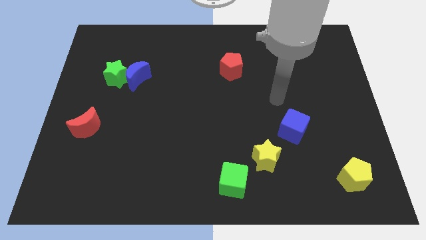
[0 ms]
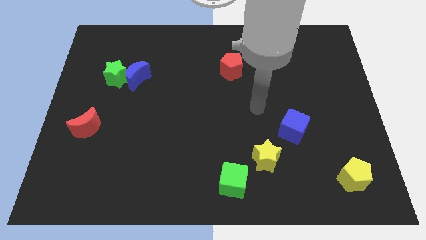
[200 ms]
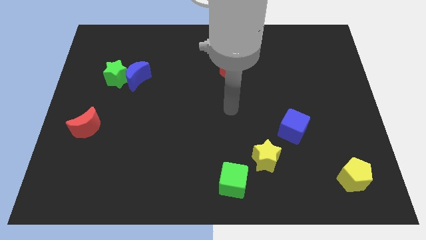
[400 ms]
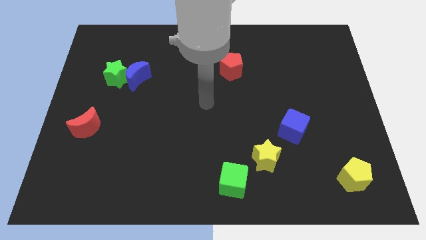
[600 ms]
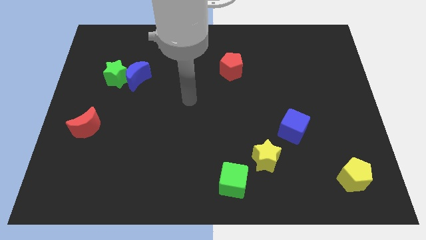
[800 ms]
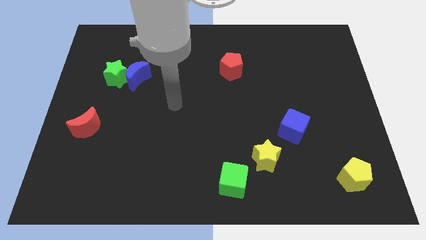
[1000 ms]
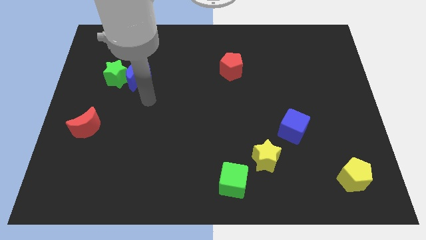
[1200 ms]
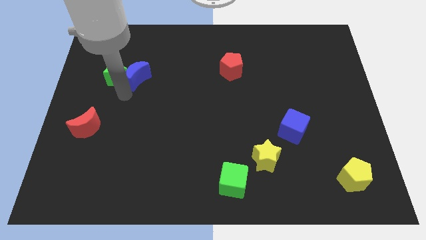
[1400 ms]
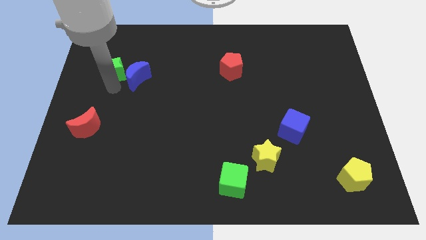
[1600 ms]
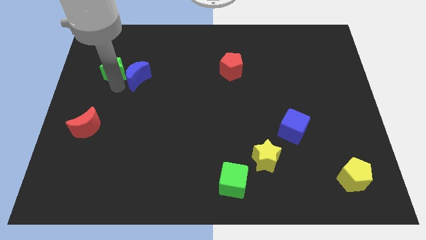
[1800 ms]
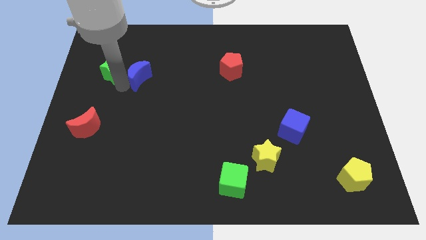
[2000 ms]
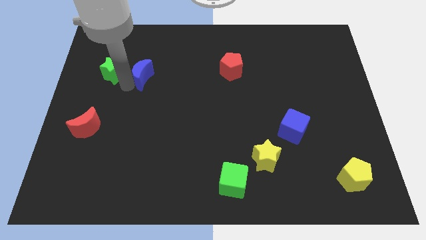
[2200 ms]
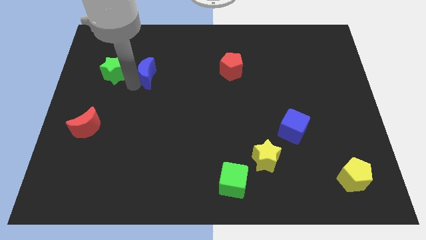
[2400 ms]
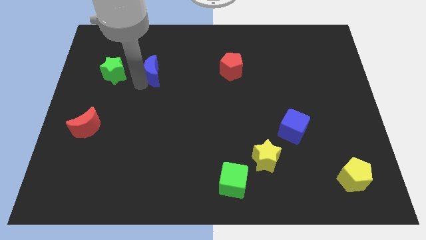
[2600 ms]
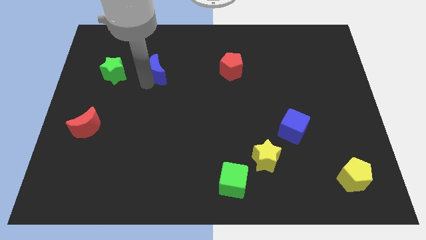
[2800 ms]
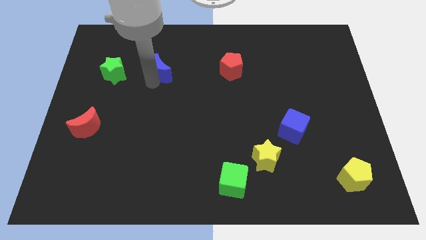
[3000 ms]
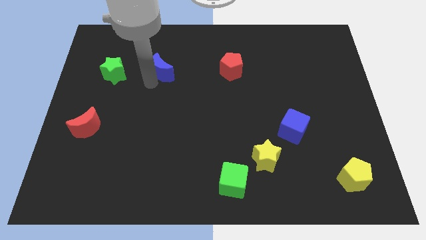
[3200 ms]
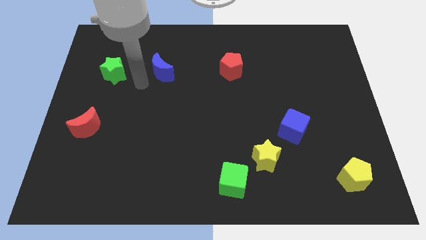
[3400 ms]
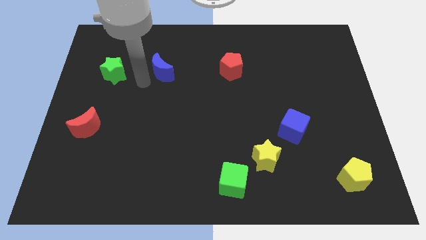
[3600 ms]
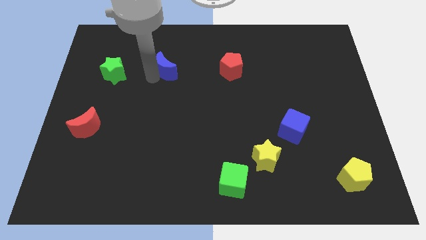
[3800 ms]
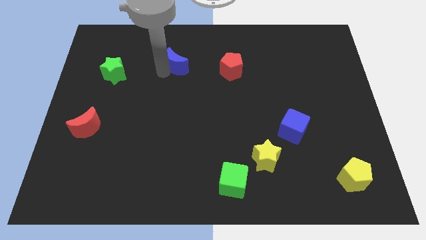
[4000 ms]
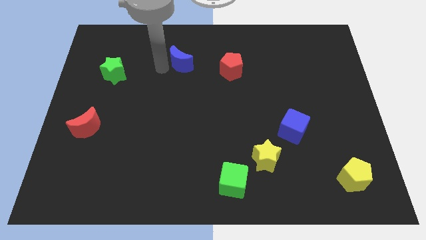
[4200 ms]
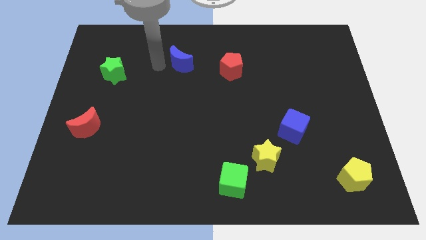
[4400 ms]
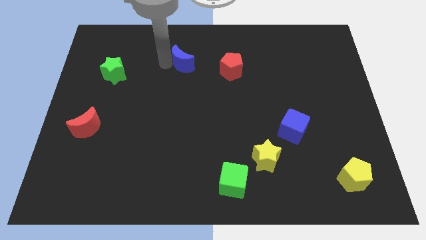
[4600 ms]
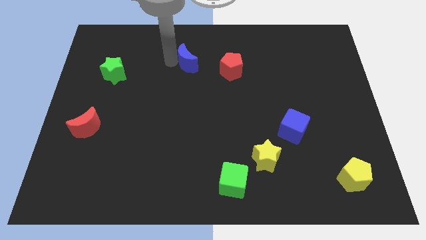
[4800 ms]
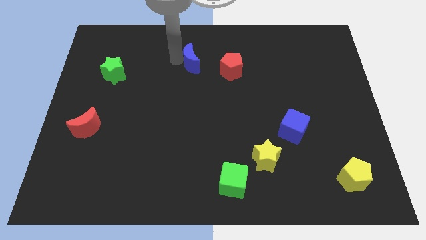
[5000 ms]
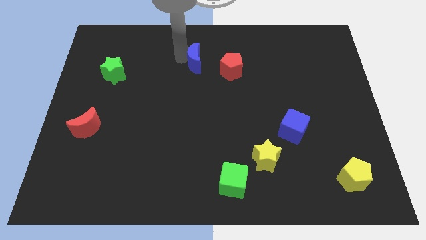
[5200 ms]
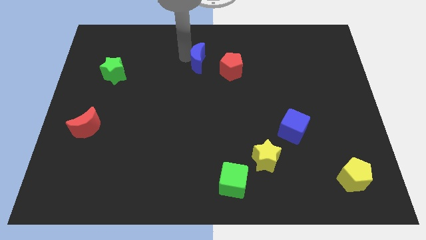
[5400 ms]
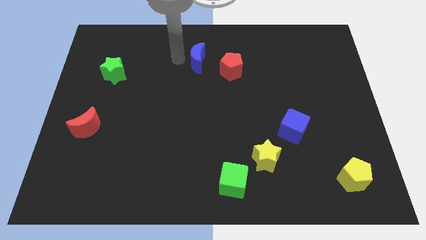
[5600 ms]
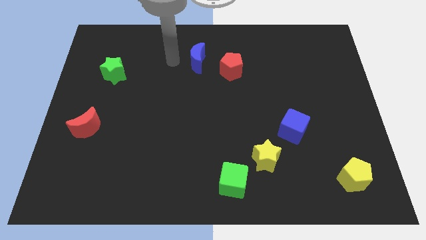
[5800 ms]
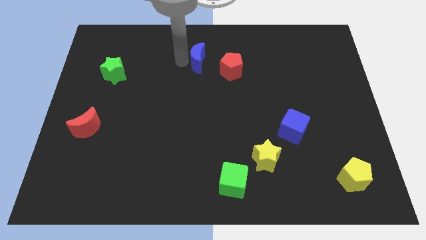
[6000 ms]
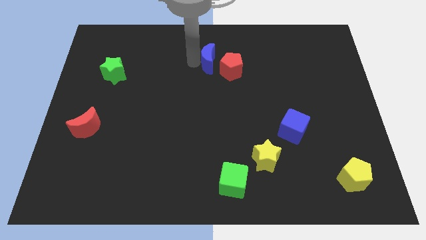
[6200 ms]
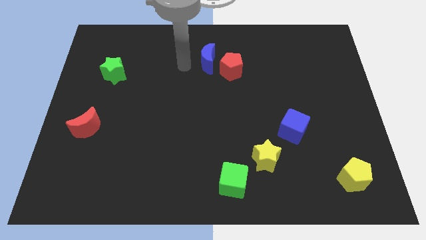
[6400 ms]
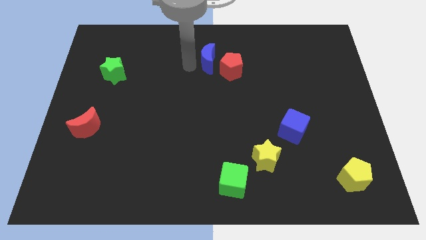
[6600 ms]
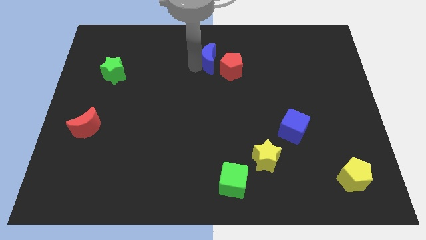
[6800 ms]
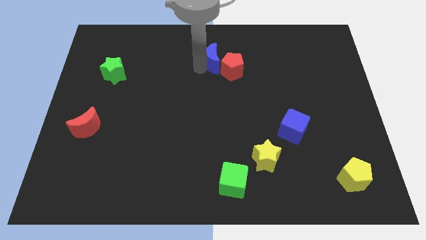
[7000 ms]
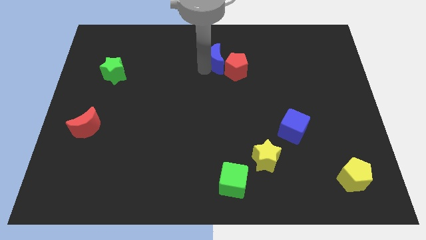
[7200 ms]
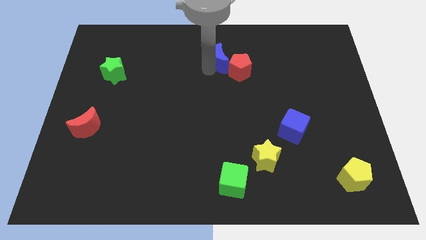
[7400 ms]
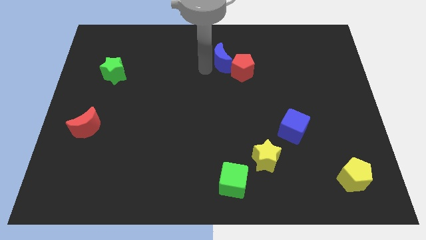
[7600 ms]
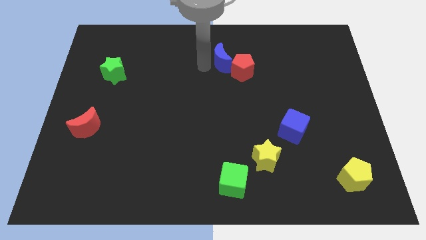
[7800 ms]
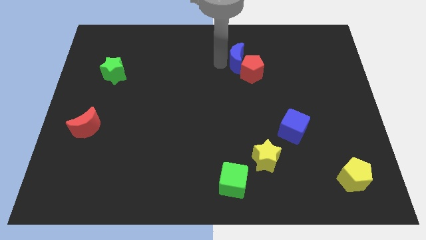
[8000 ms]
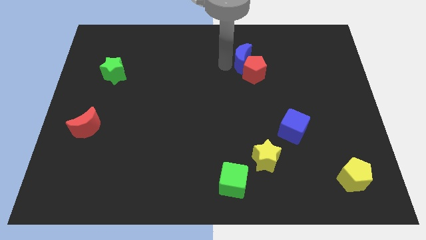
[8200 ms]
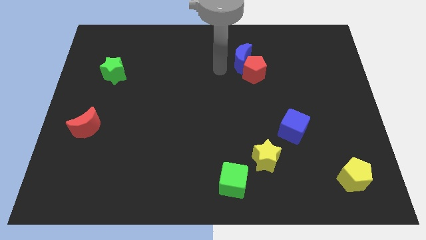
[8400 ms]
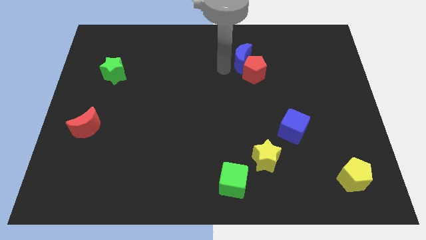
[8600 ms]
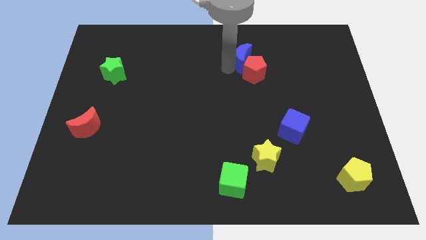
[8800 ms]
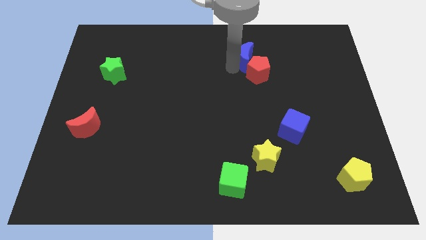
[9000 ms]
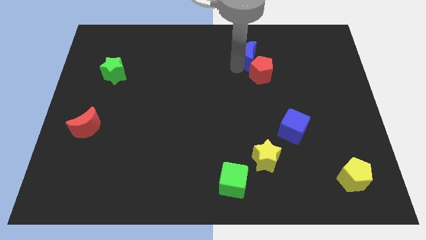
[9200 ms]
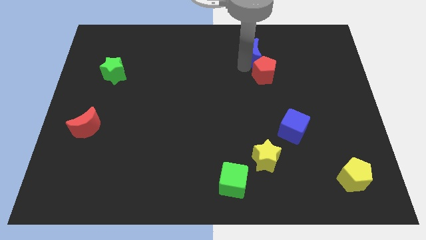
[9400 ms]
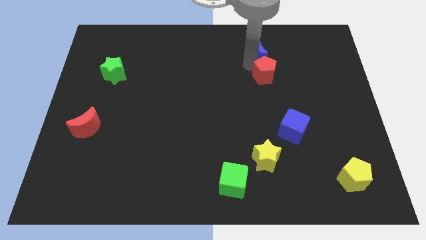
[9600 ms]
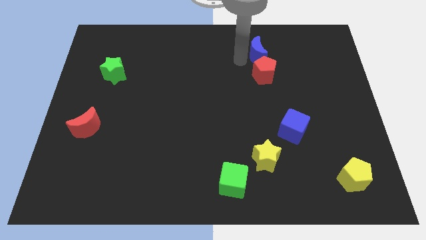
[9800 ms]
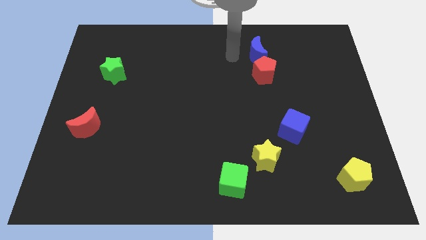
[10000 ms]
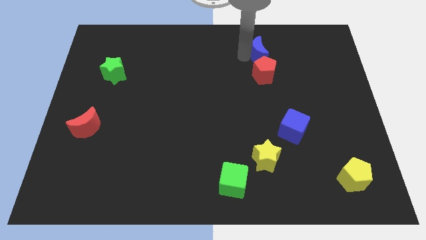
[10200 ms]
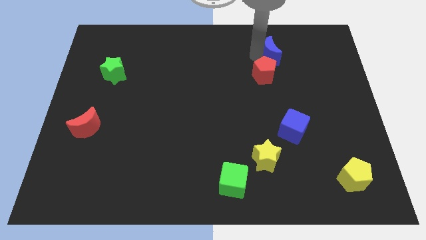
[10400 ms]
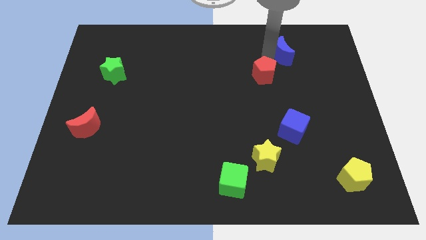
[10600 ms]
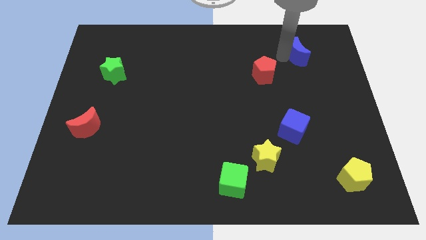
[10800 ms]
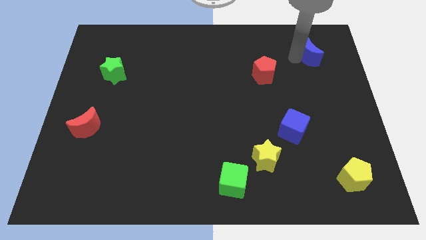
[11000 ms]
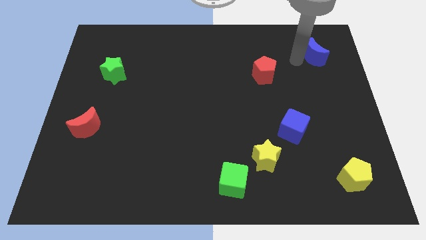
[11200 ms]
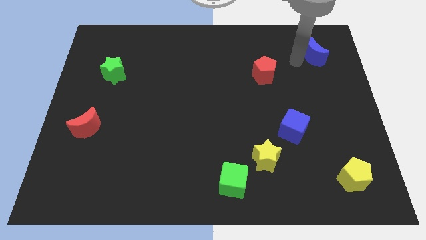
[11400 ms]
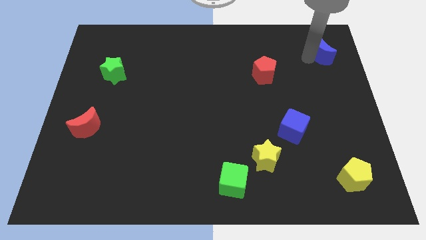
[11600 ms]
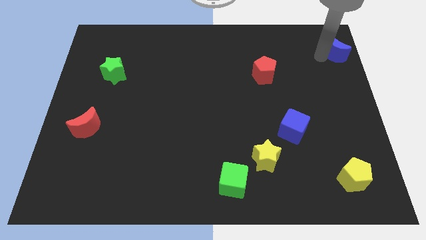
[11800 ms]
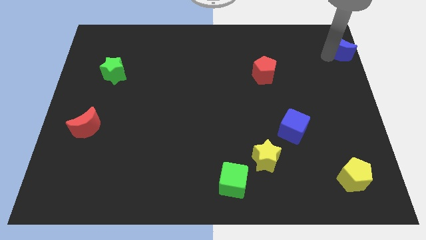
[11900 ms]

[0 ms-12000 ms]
push the blue moon to the top right corner
